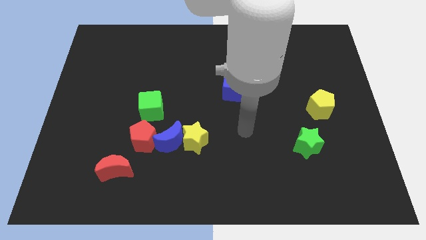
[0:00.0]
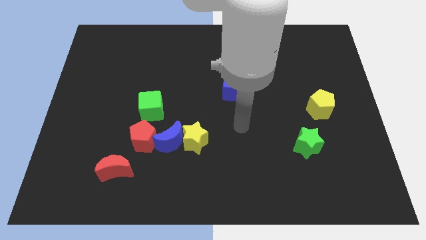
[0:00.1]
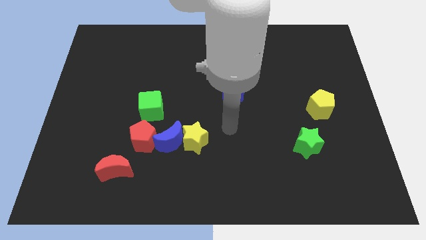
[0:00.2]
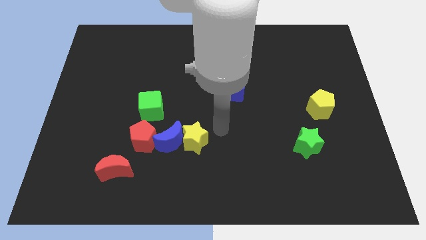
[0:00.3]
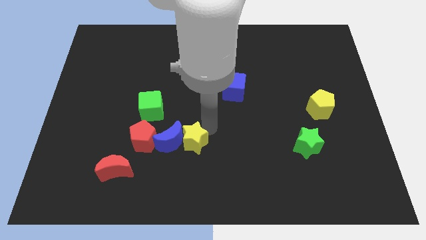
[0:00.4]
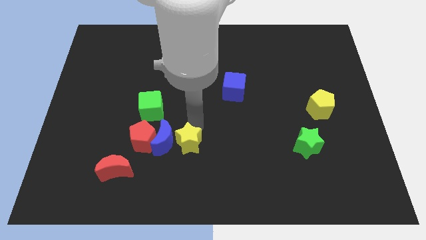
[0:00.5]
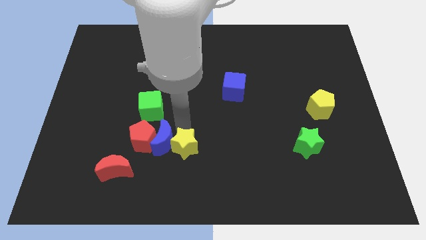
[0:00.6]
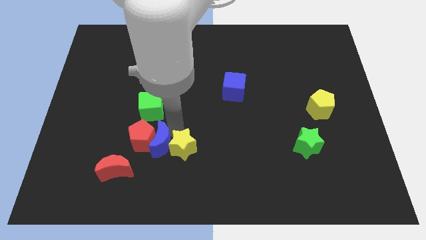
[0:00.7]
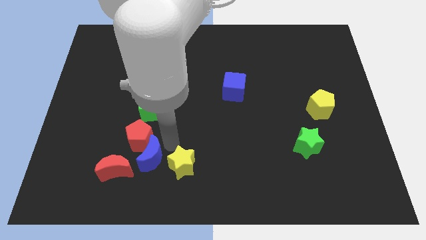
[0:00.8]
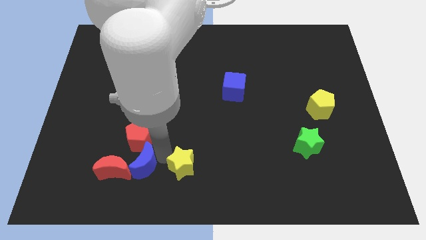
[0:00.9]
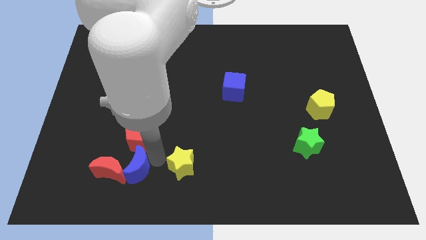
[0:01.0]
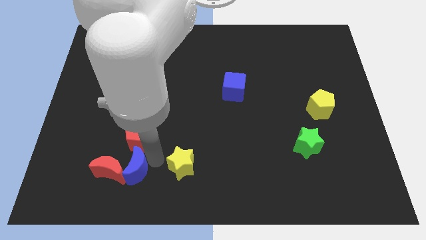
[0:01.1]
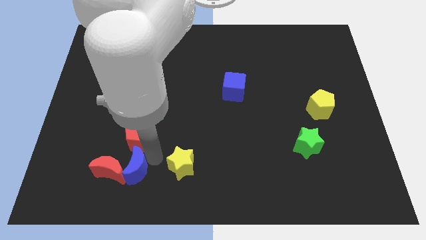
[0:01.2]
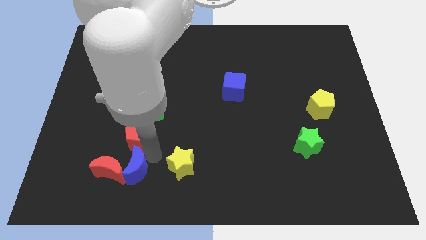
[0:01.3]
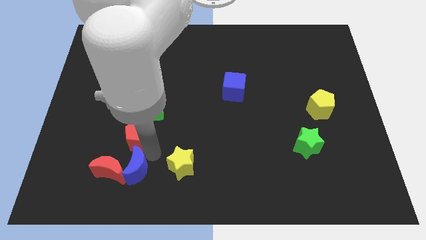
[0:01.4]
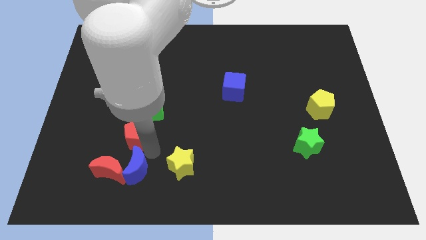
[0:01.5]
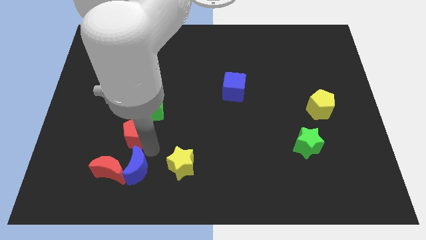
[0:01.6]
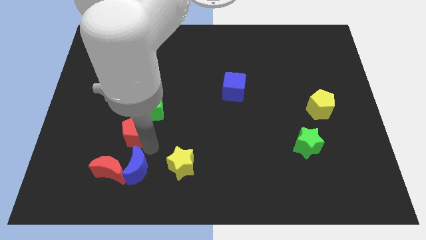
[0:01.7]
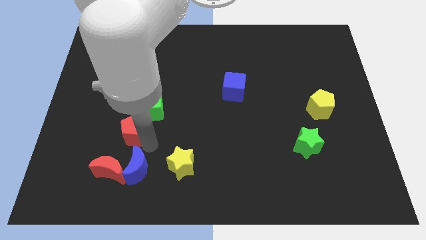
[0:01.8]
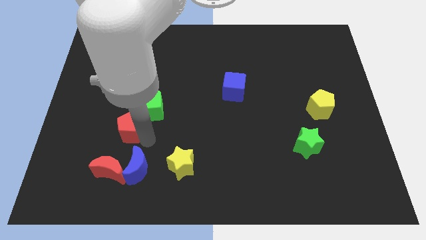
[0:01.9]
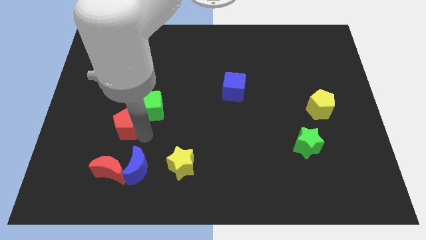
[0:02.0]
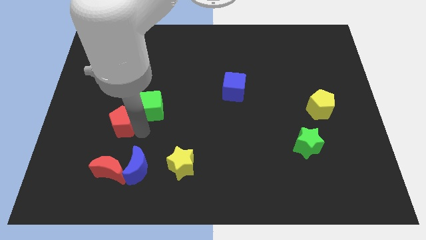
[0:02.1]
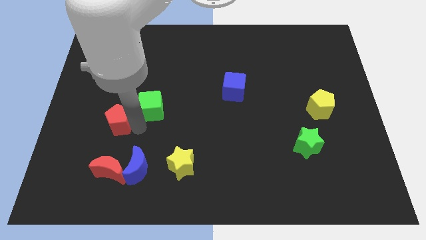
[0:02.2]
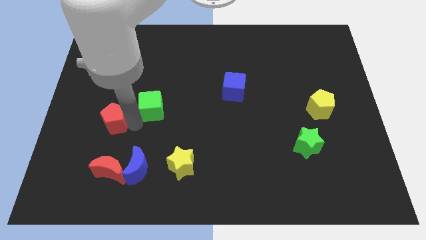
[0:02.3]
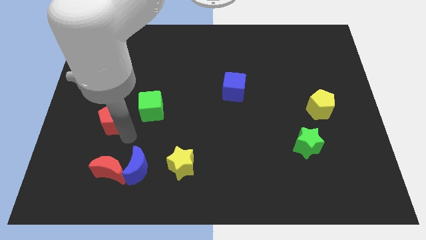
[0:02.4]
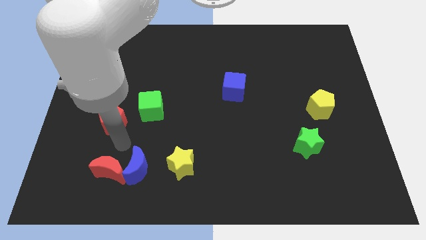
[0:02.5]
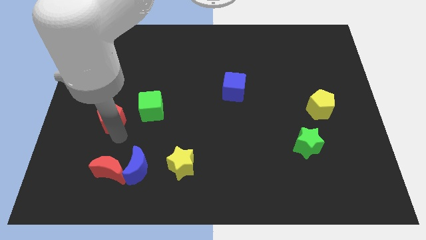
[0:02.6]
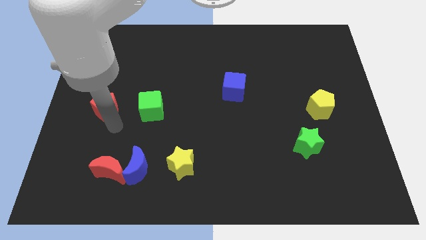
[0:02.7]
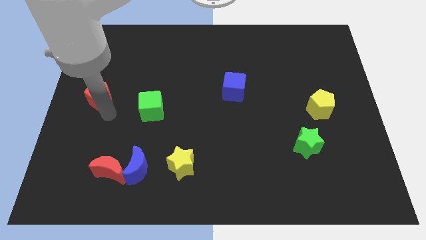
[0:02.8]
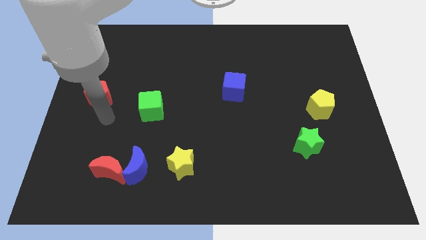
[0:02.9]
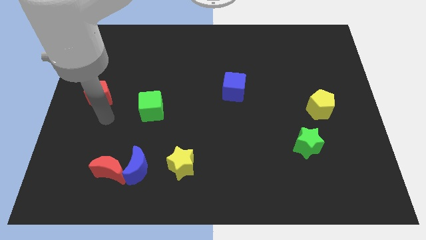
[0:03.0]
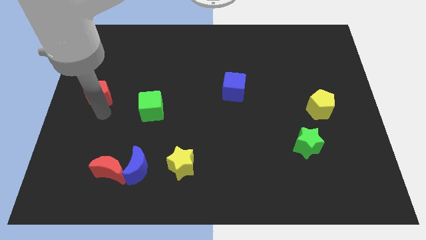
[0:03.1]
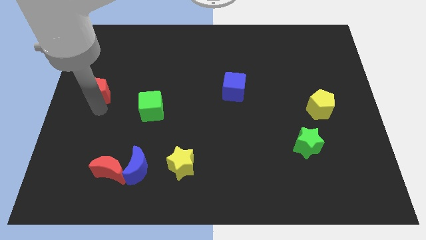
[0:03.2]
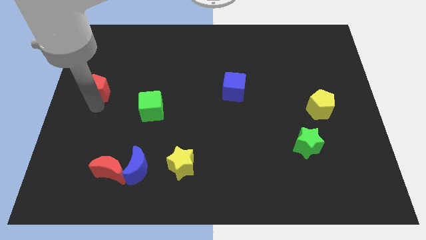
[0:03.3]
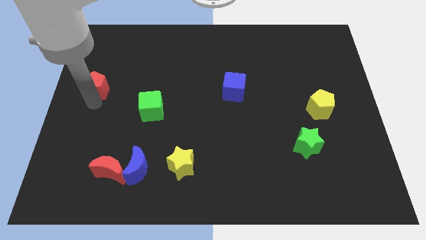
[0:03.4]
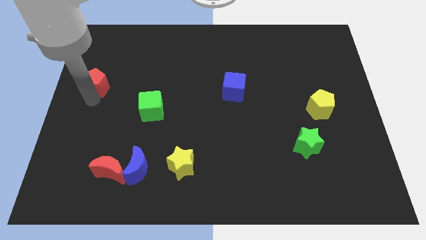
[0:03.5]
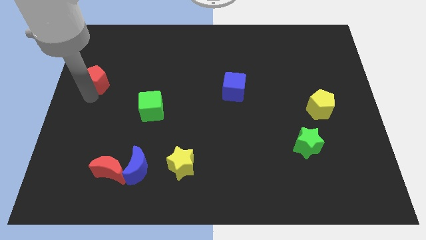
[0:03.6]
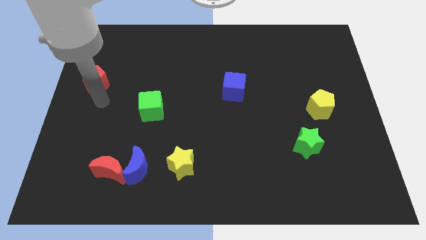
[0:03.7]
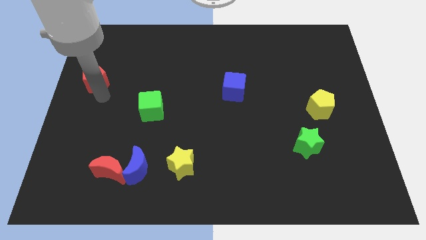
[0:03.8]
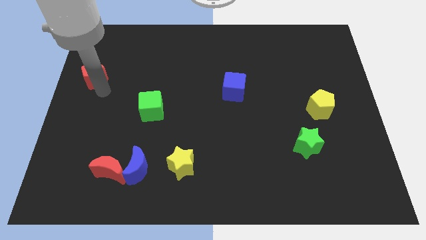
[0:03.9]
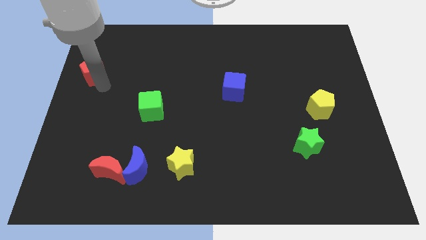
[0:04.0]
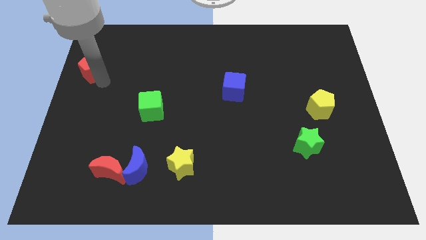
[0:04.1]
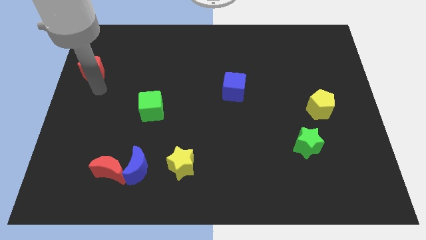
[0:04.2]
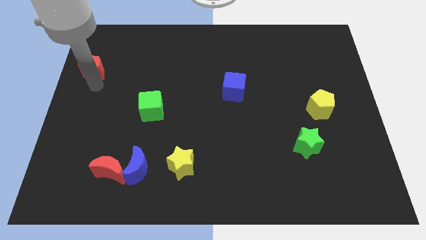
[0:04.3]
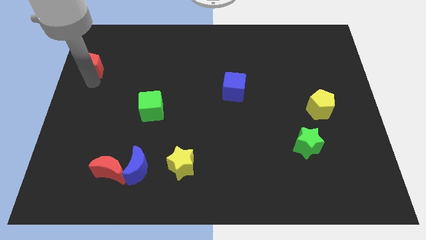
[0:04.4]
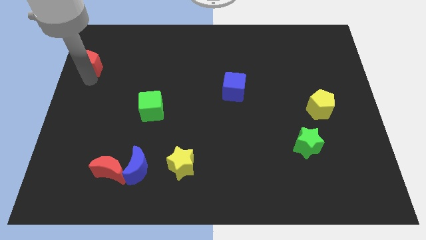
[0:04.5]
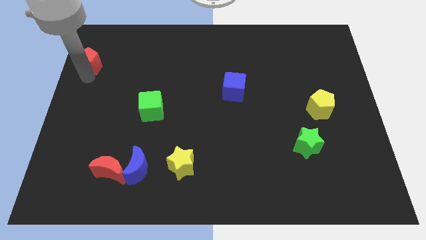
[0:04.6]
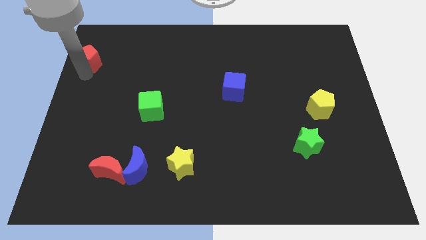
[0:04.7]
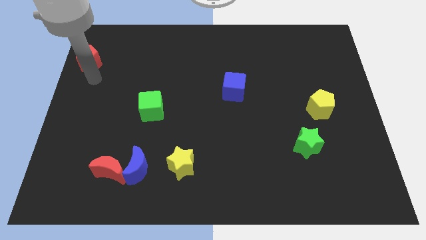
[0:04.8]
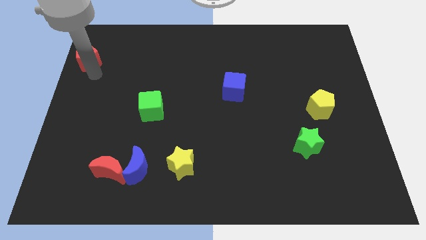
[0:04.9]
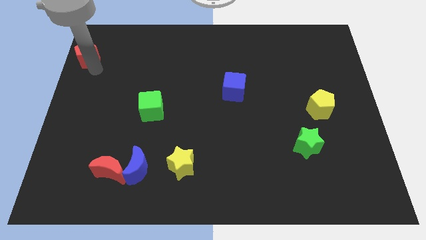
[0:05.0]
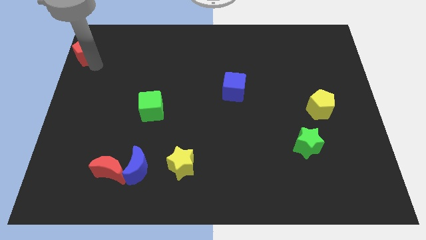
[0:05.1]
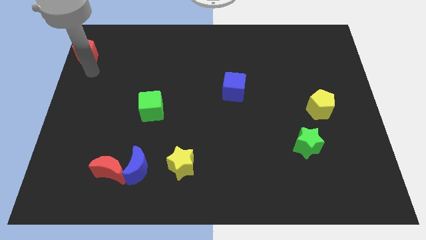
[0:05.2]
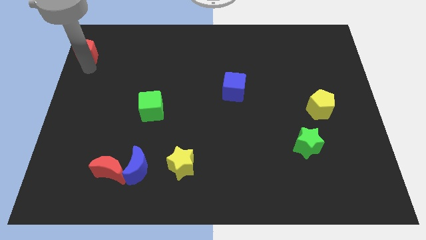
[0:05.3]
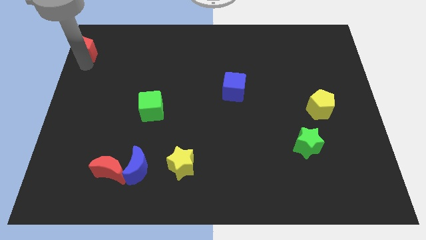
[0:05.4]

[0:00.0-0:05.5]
slide the red pentagon to the upper left corner

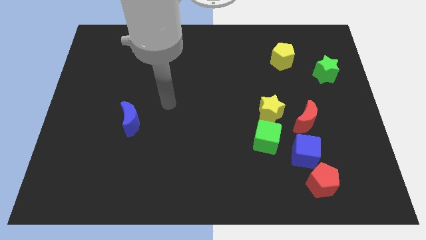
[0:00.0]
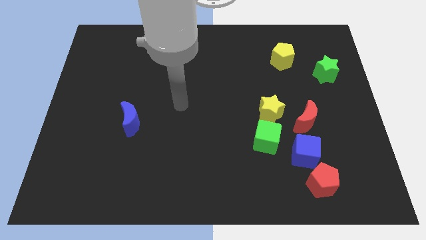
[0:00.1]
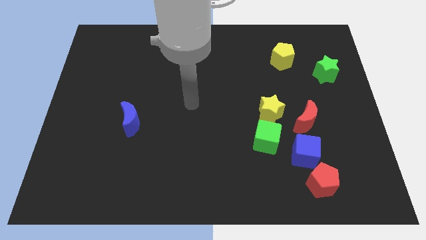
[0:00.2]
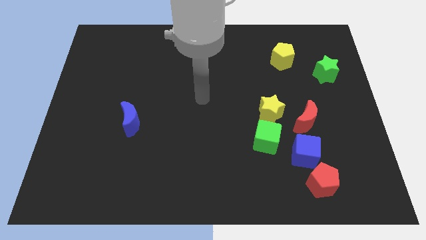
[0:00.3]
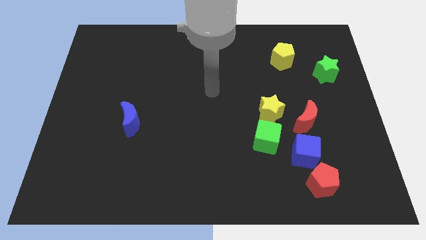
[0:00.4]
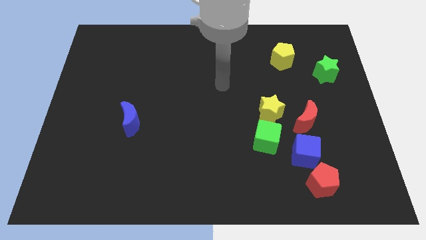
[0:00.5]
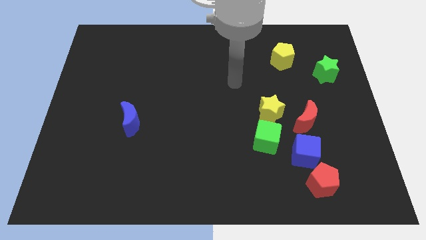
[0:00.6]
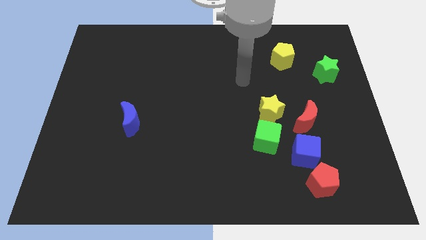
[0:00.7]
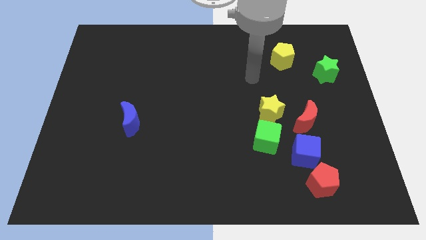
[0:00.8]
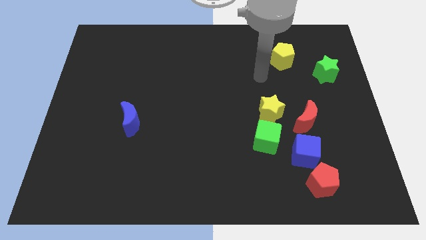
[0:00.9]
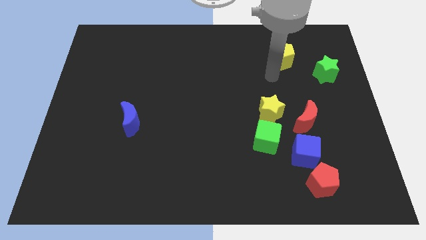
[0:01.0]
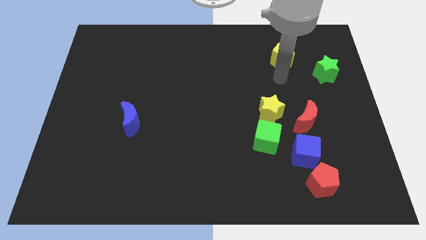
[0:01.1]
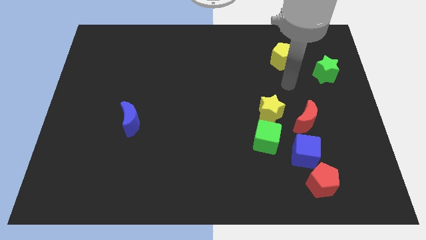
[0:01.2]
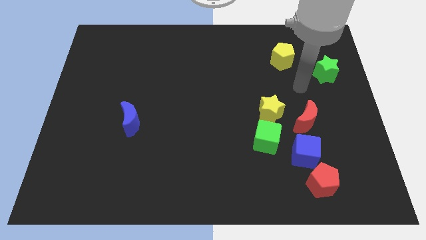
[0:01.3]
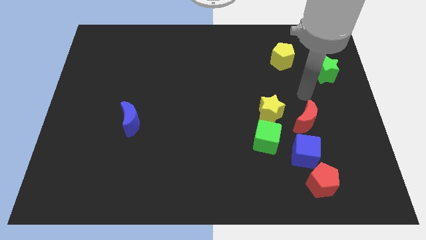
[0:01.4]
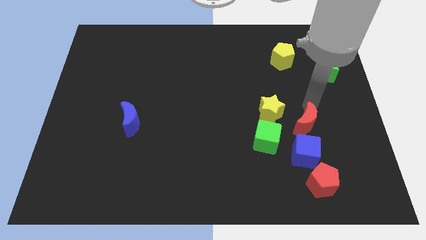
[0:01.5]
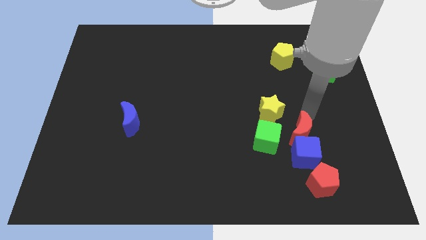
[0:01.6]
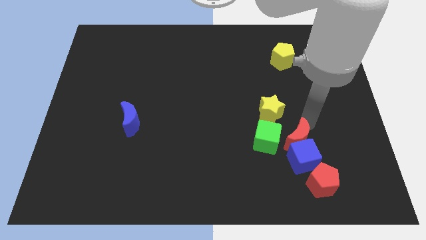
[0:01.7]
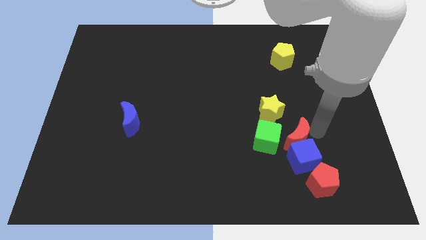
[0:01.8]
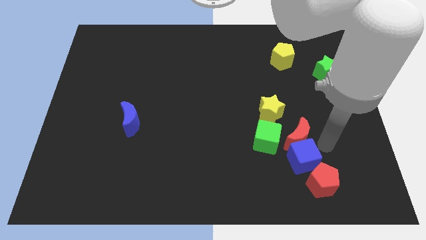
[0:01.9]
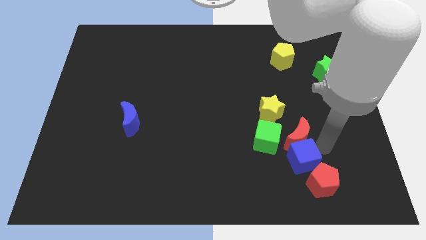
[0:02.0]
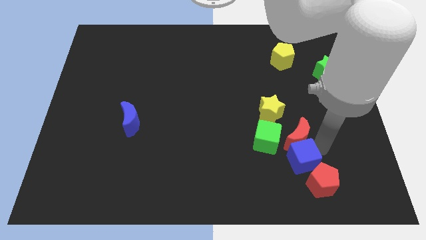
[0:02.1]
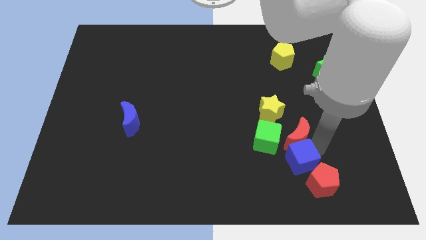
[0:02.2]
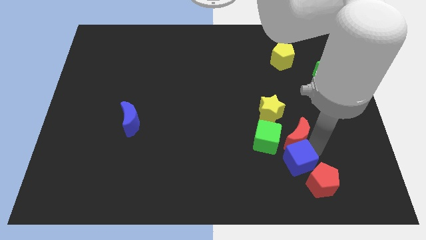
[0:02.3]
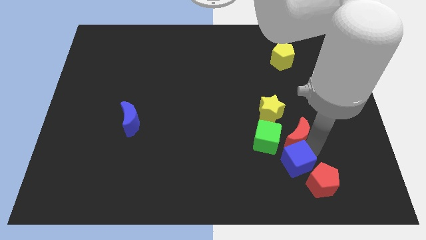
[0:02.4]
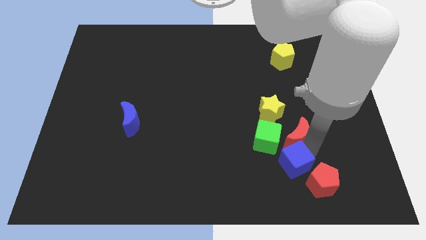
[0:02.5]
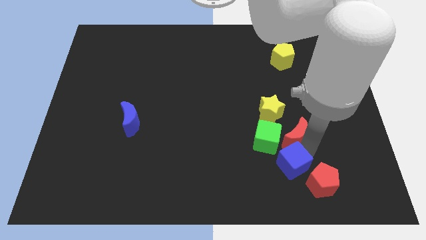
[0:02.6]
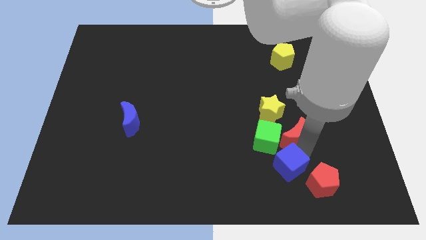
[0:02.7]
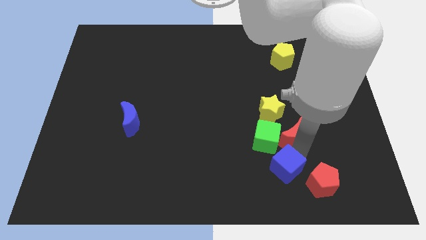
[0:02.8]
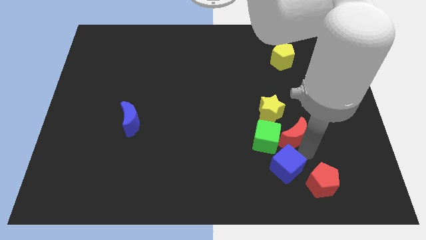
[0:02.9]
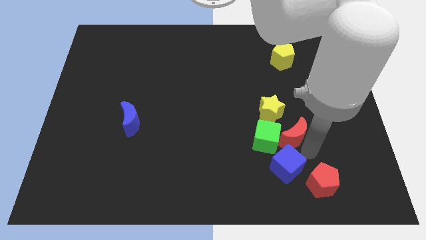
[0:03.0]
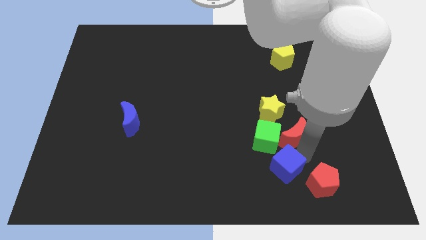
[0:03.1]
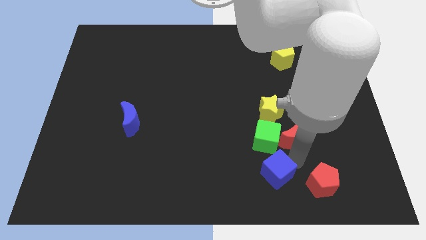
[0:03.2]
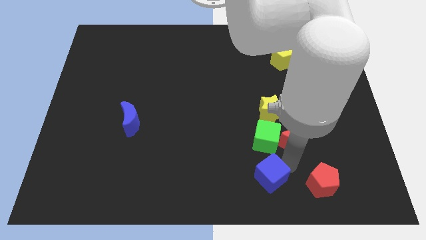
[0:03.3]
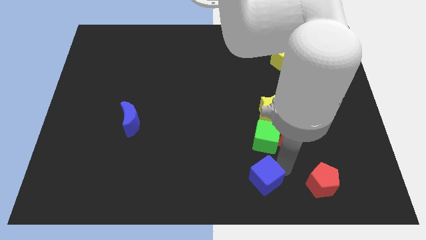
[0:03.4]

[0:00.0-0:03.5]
put the blue cube to the bottom side
